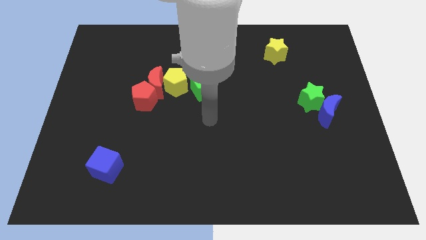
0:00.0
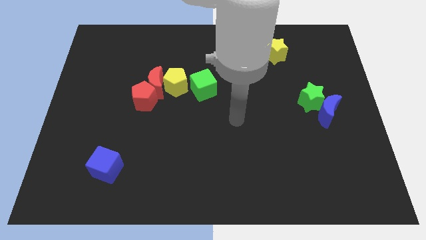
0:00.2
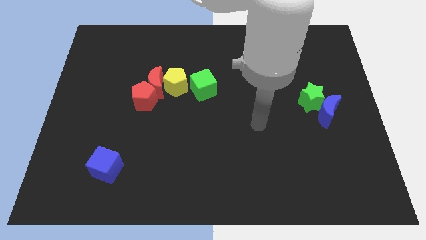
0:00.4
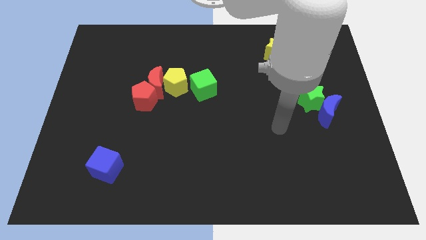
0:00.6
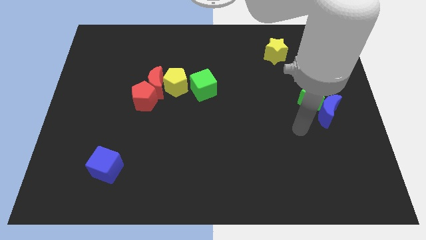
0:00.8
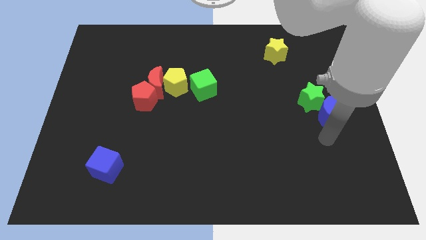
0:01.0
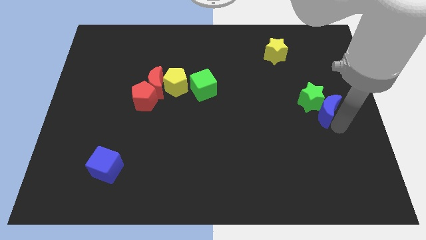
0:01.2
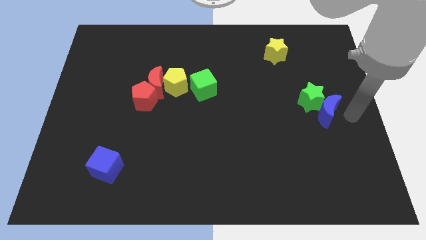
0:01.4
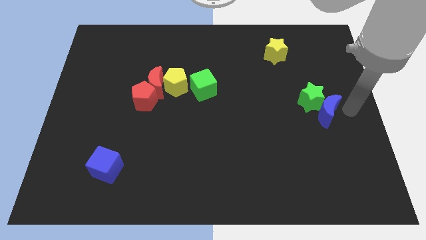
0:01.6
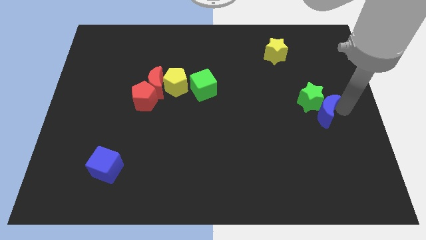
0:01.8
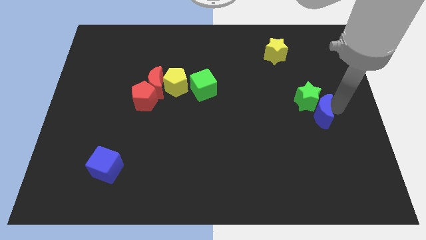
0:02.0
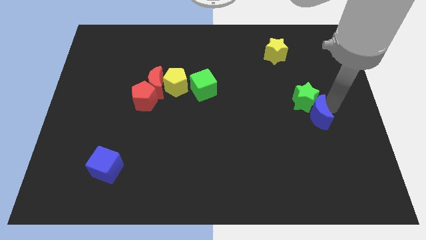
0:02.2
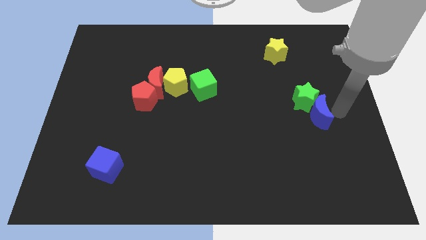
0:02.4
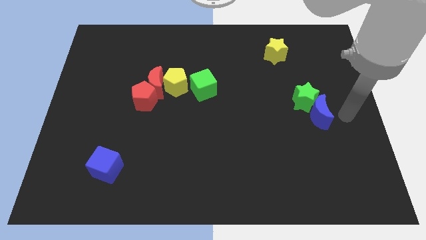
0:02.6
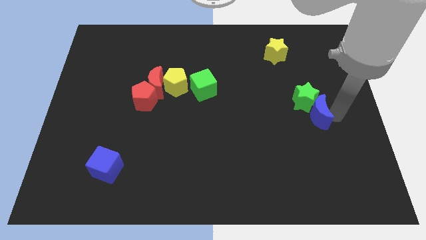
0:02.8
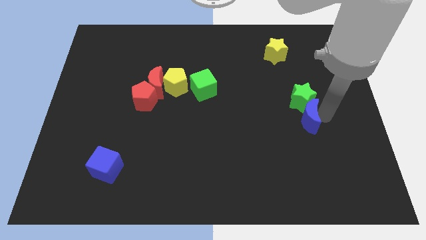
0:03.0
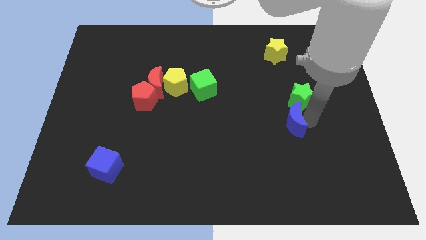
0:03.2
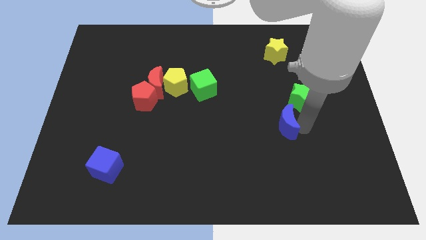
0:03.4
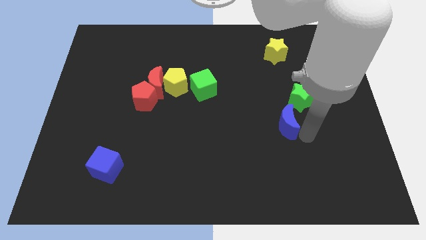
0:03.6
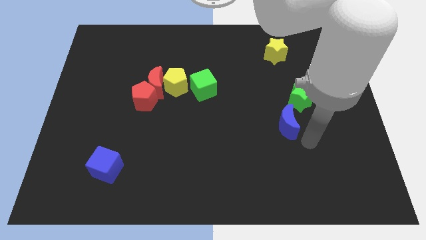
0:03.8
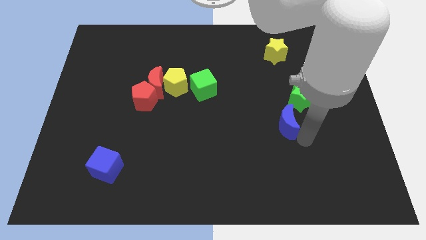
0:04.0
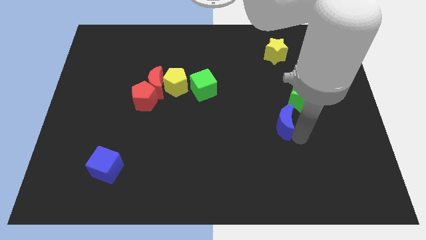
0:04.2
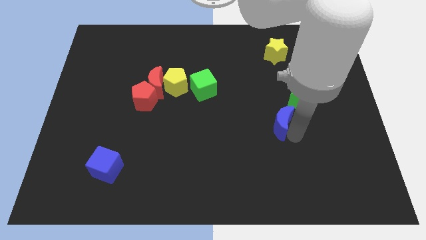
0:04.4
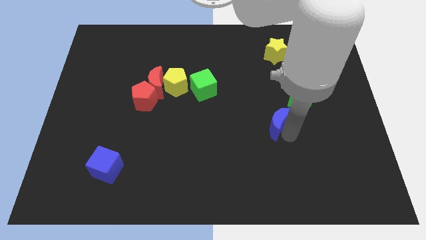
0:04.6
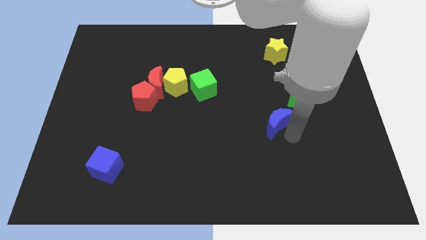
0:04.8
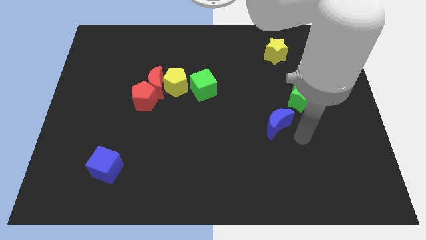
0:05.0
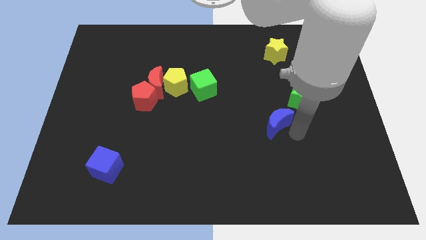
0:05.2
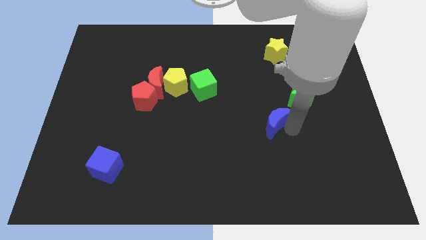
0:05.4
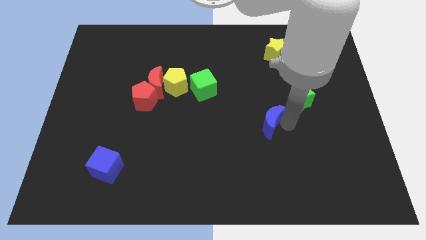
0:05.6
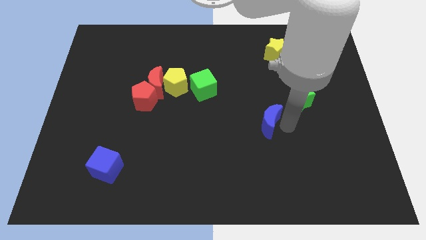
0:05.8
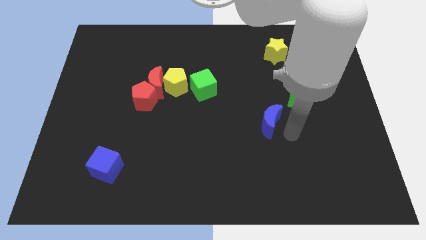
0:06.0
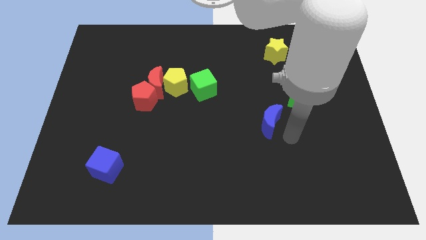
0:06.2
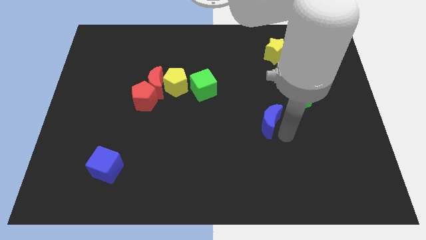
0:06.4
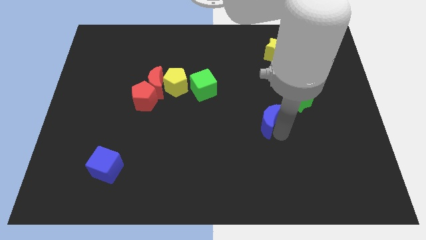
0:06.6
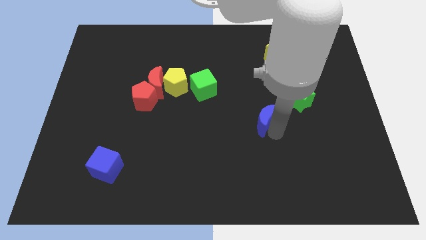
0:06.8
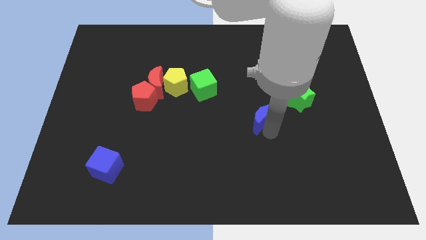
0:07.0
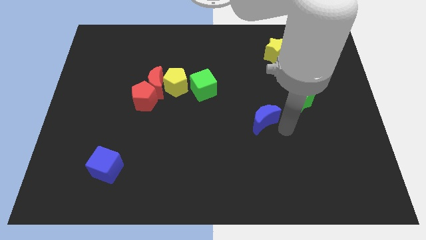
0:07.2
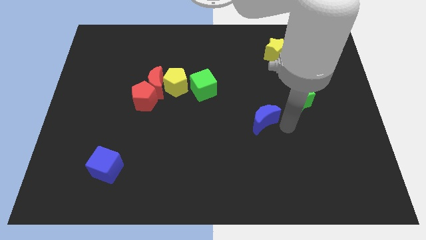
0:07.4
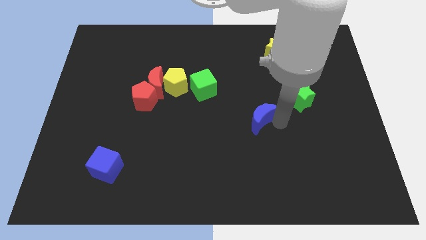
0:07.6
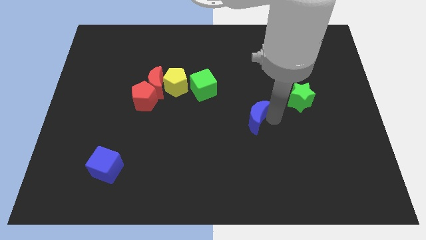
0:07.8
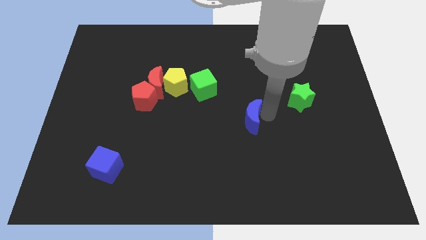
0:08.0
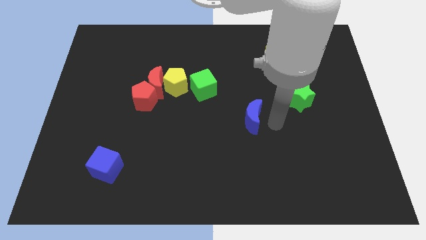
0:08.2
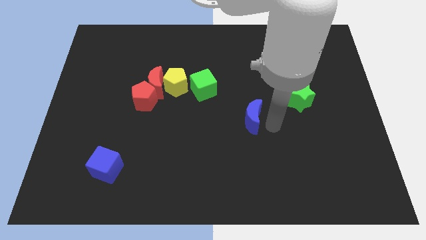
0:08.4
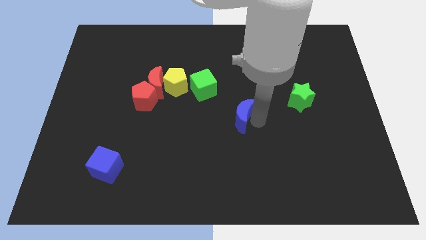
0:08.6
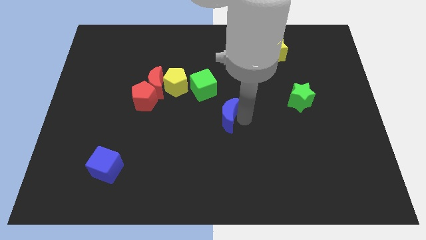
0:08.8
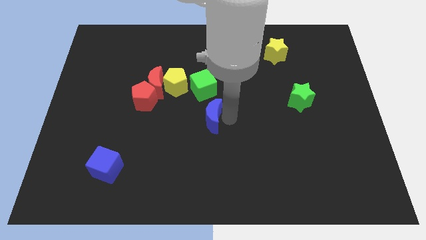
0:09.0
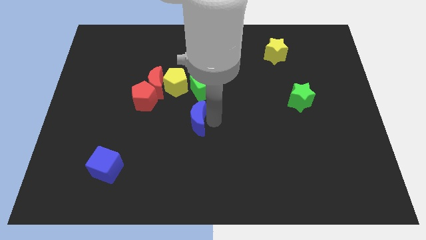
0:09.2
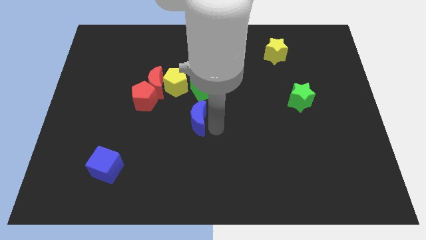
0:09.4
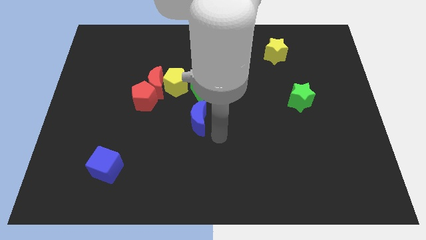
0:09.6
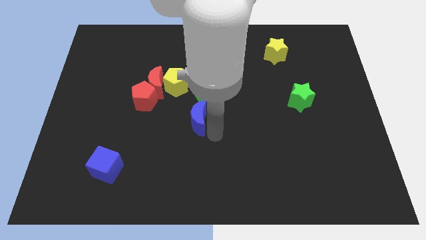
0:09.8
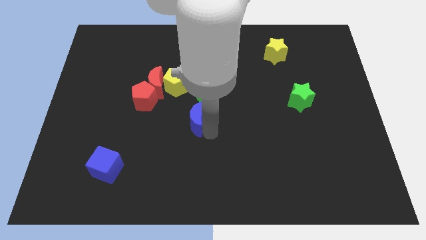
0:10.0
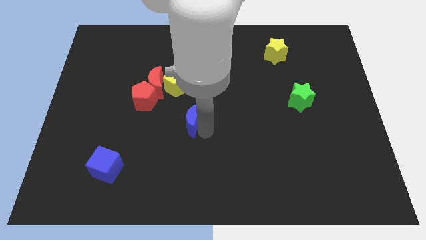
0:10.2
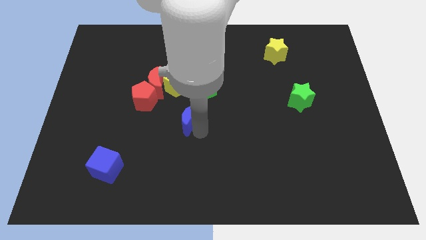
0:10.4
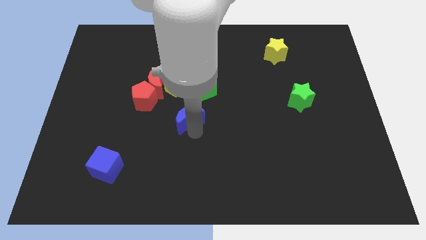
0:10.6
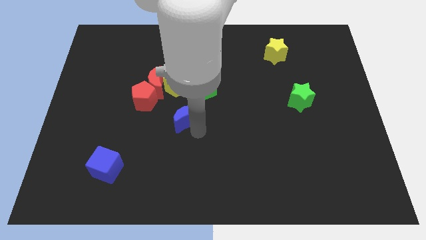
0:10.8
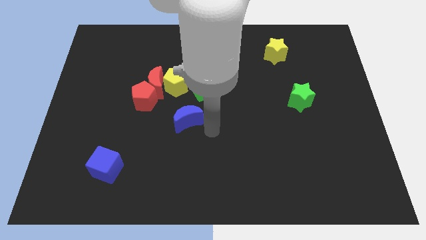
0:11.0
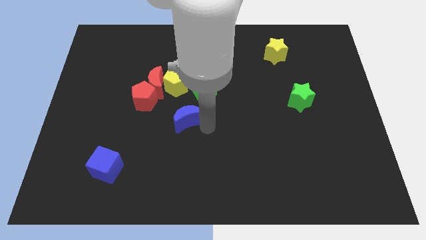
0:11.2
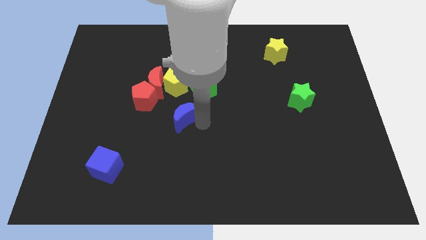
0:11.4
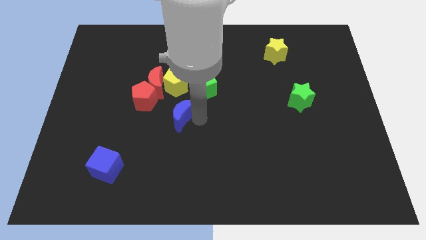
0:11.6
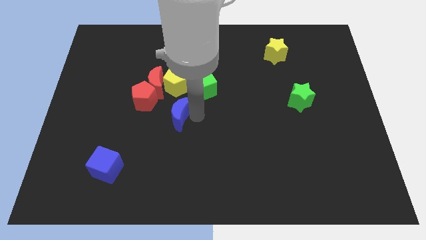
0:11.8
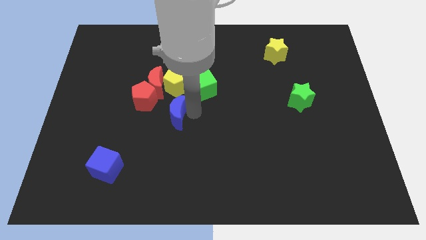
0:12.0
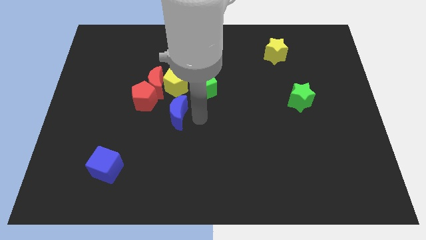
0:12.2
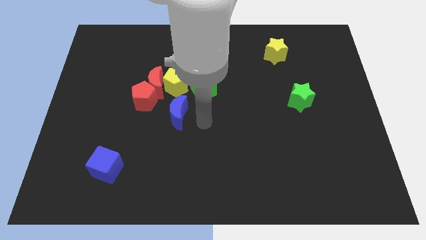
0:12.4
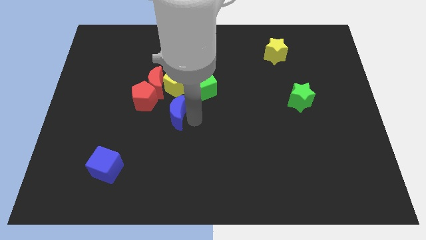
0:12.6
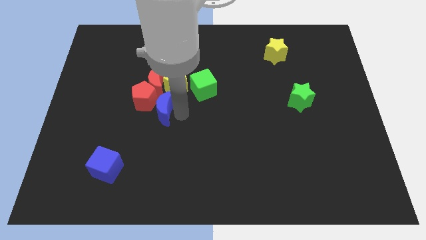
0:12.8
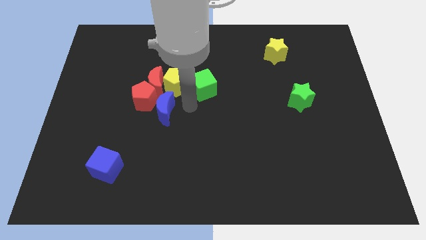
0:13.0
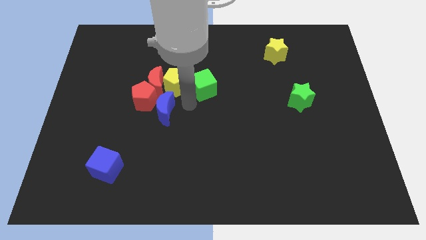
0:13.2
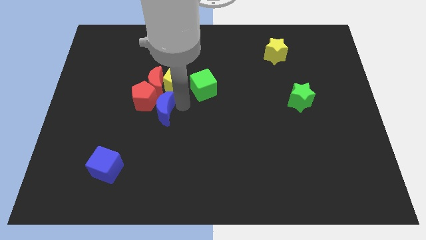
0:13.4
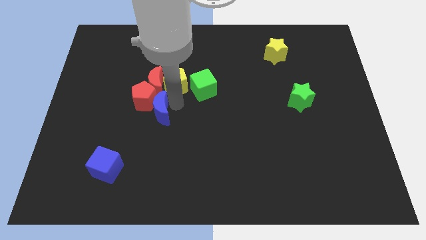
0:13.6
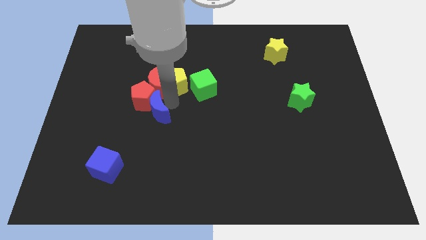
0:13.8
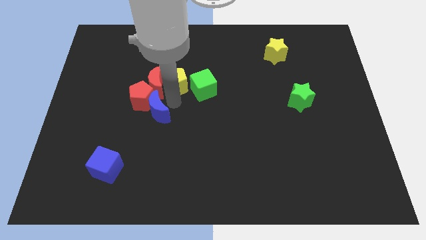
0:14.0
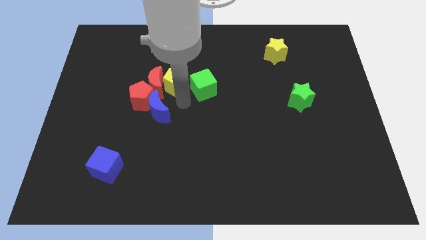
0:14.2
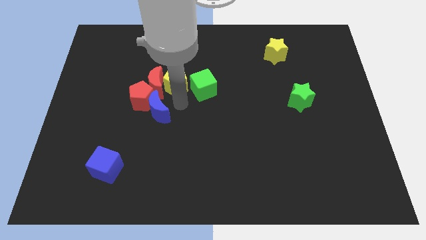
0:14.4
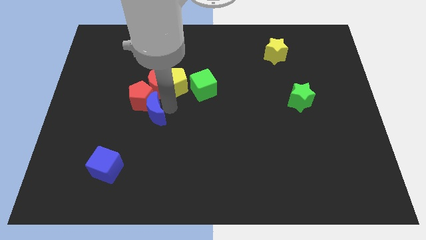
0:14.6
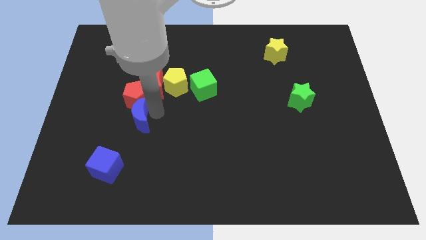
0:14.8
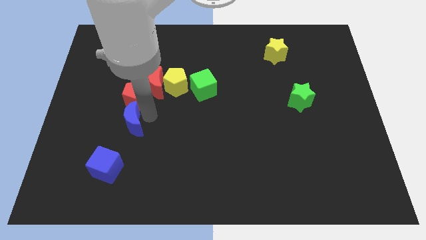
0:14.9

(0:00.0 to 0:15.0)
slide the blue moon to the top side of the blue cube
